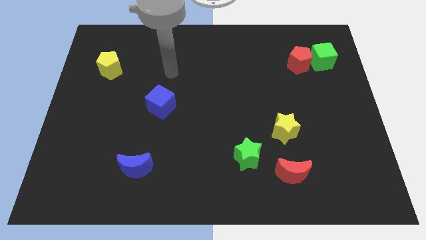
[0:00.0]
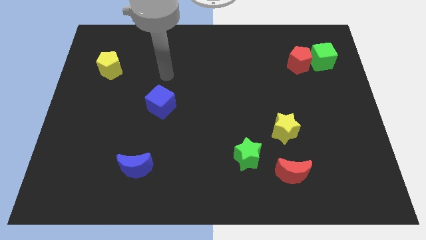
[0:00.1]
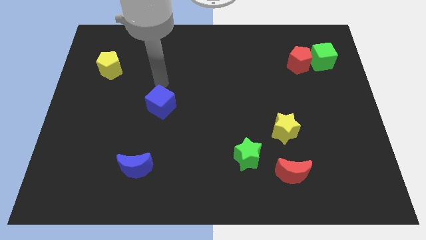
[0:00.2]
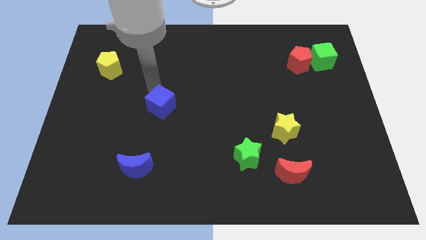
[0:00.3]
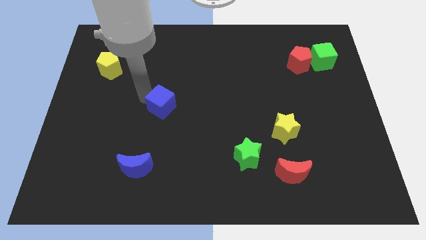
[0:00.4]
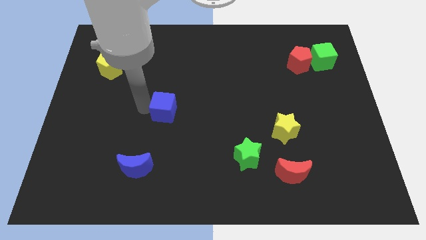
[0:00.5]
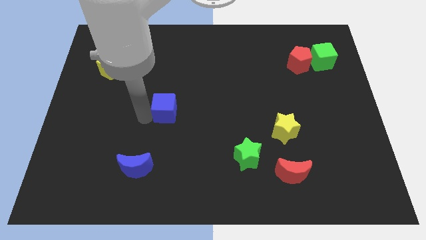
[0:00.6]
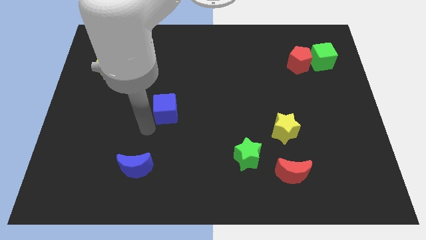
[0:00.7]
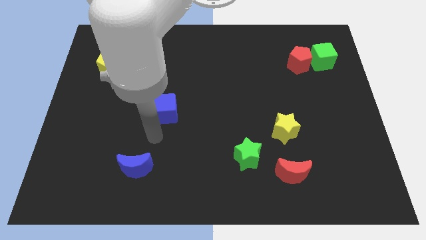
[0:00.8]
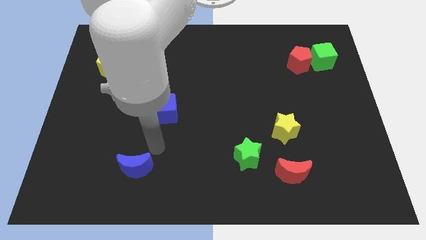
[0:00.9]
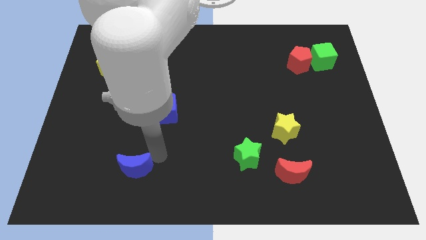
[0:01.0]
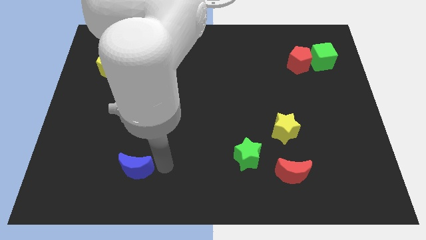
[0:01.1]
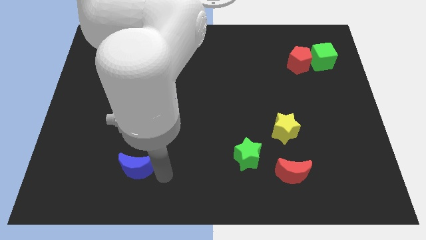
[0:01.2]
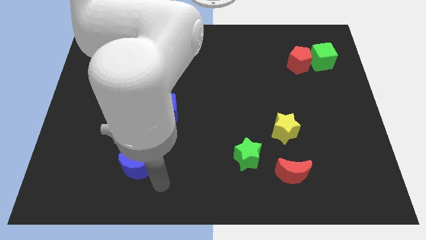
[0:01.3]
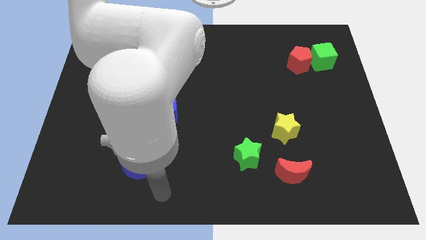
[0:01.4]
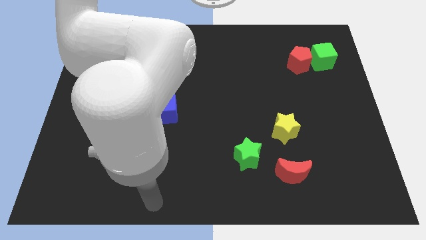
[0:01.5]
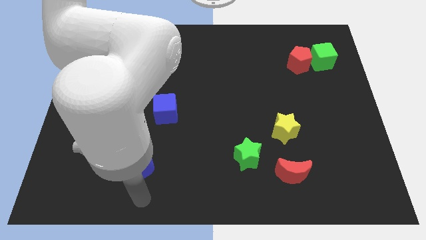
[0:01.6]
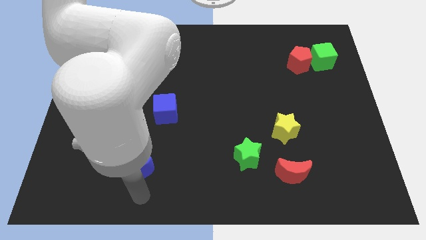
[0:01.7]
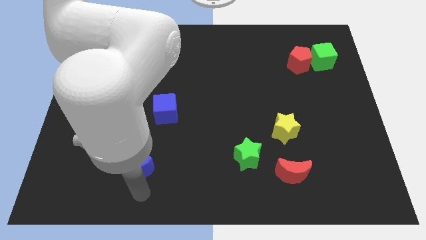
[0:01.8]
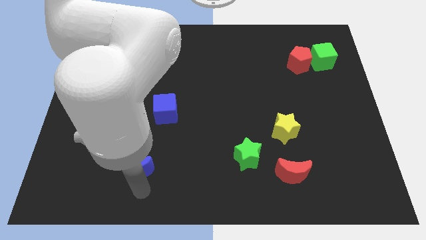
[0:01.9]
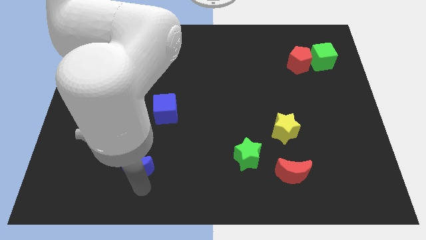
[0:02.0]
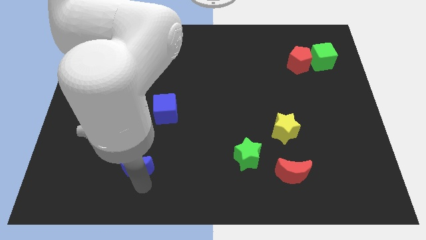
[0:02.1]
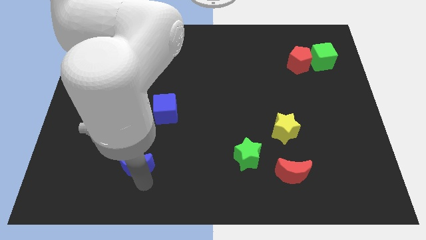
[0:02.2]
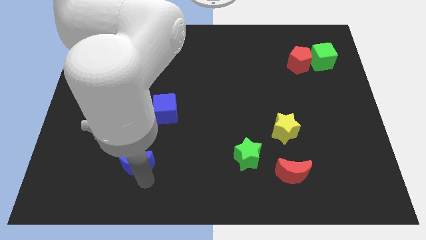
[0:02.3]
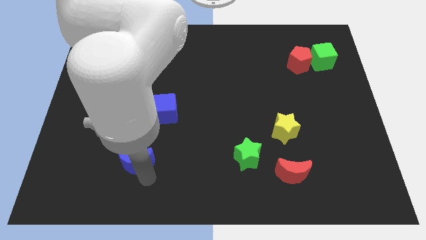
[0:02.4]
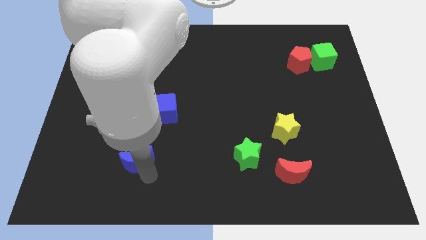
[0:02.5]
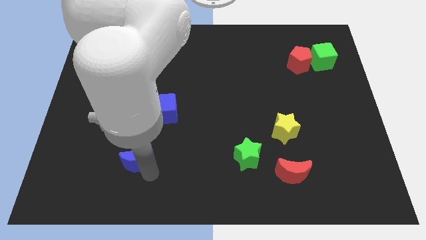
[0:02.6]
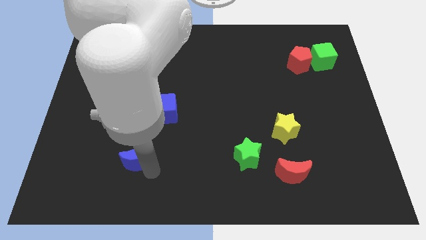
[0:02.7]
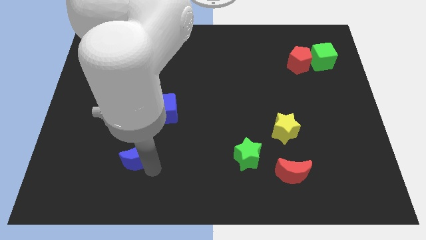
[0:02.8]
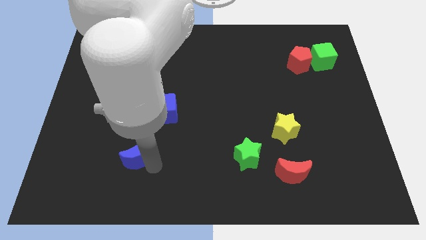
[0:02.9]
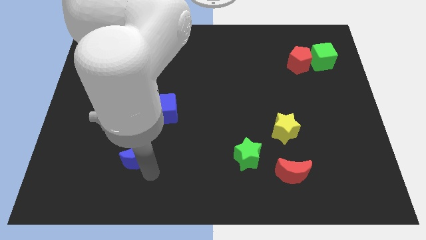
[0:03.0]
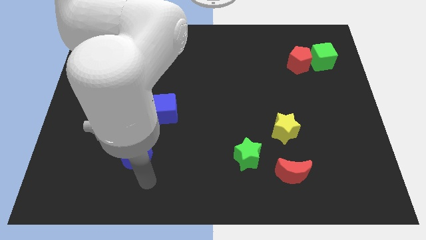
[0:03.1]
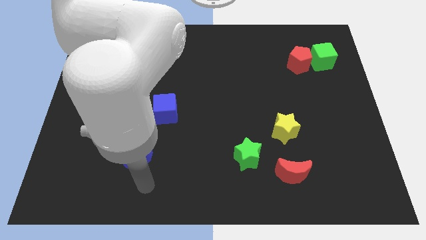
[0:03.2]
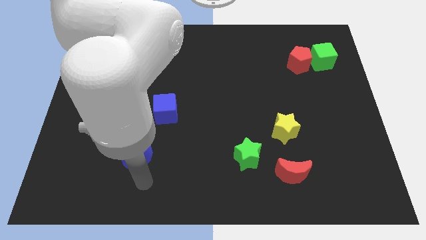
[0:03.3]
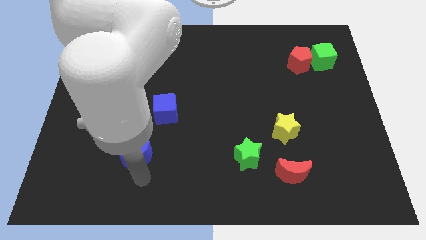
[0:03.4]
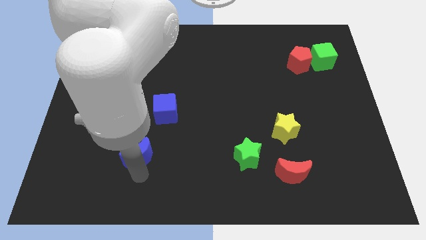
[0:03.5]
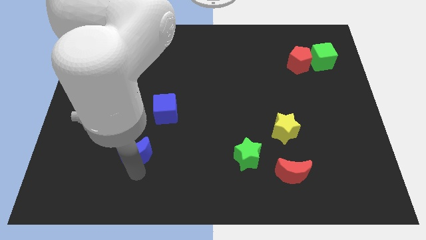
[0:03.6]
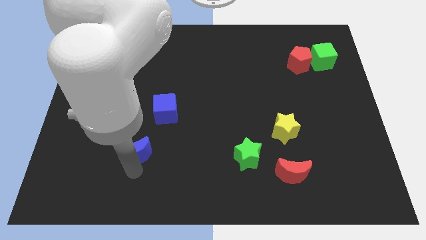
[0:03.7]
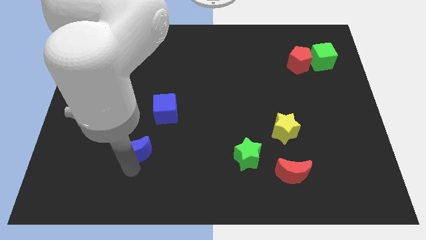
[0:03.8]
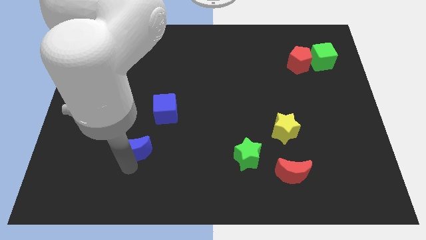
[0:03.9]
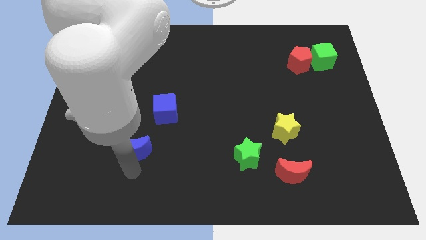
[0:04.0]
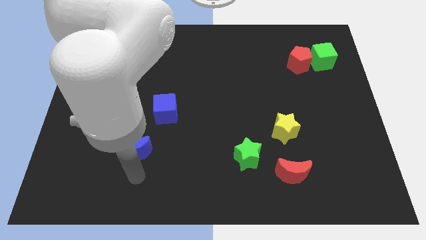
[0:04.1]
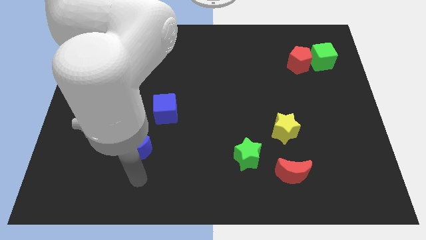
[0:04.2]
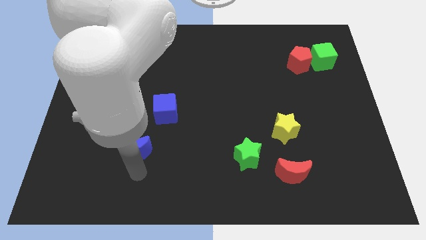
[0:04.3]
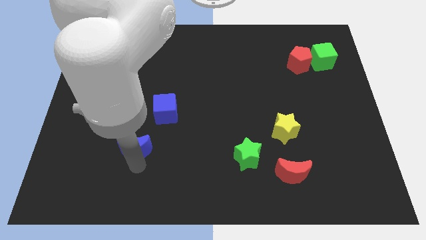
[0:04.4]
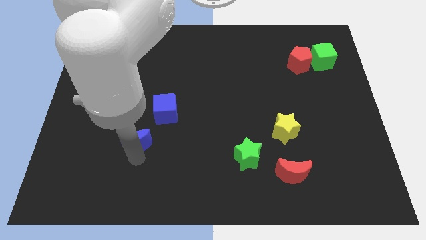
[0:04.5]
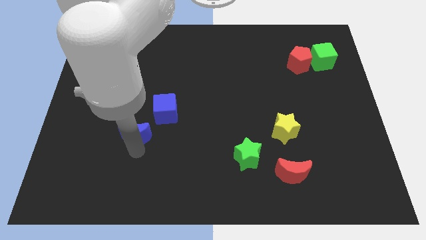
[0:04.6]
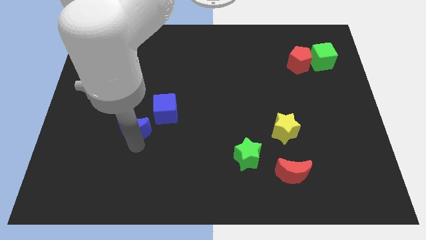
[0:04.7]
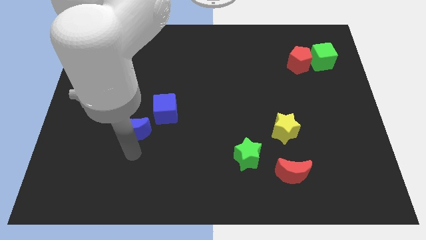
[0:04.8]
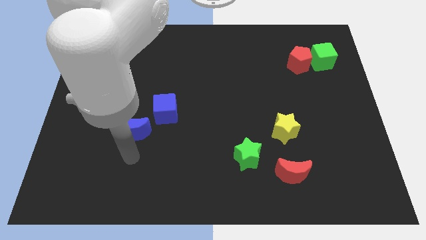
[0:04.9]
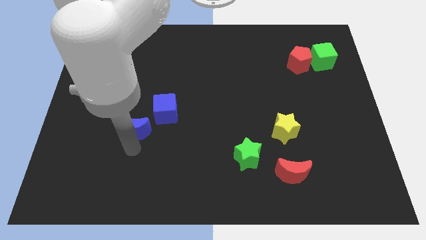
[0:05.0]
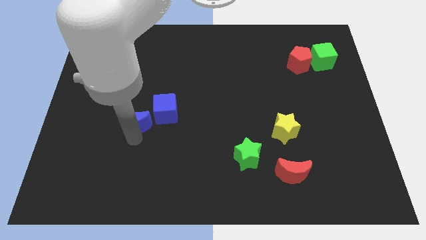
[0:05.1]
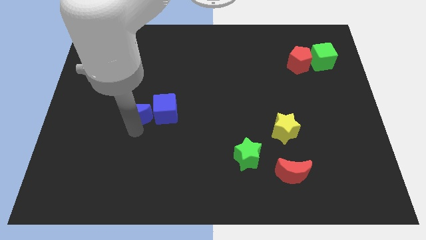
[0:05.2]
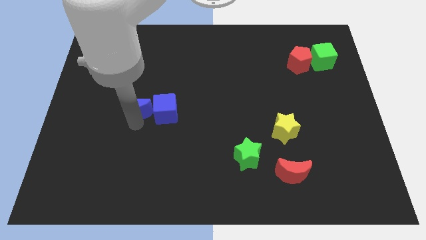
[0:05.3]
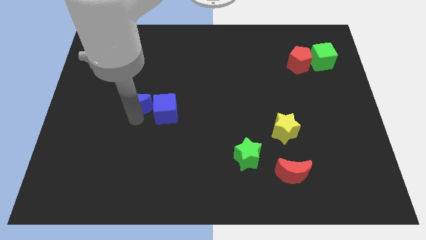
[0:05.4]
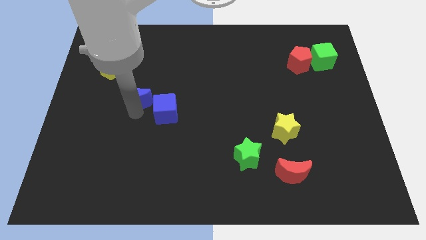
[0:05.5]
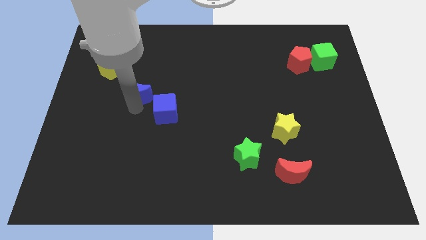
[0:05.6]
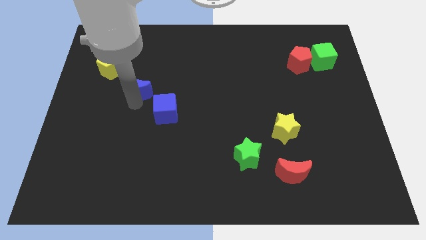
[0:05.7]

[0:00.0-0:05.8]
push the blue moon up

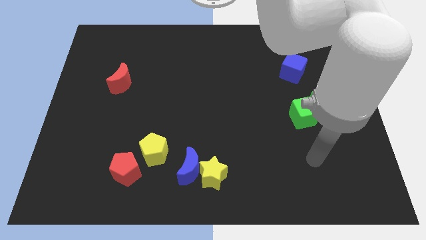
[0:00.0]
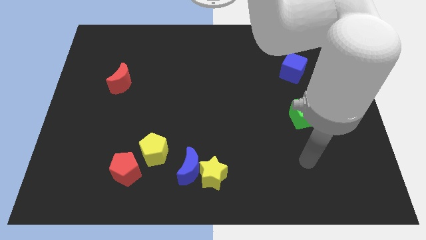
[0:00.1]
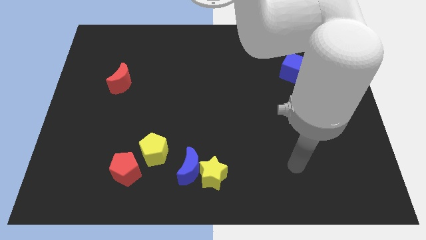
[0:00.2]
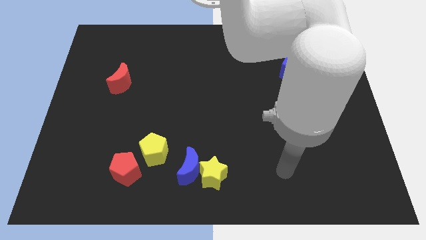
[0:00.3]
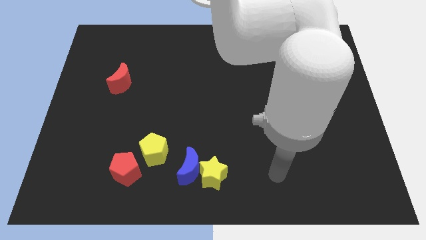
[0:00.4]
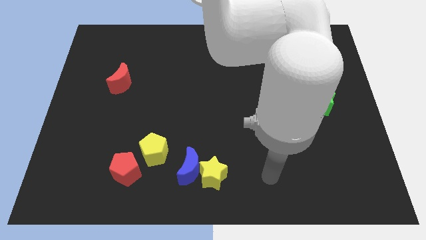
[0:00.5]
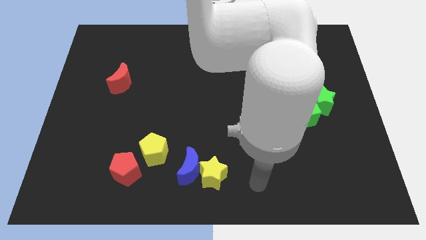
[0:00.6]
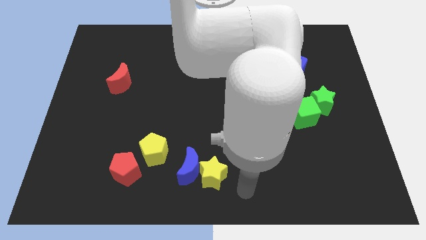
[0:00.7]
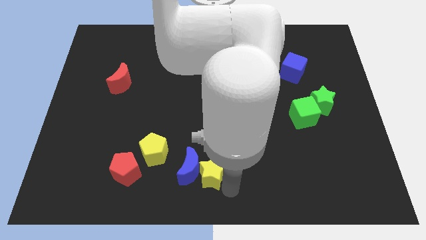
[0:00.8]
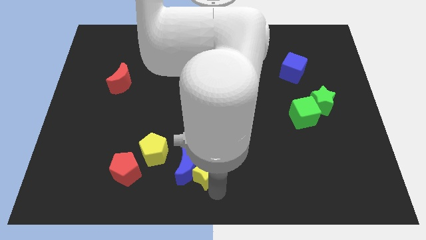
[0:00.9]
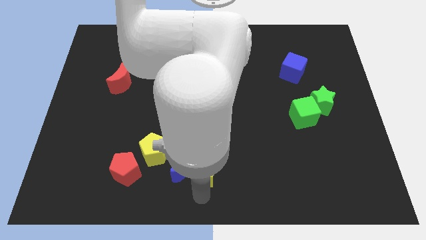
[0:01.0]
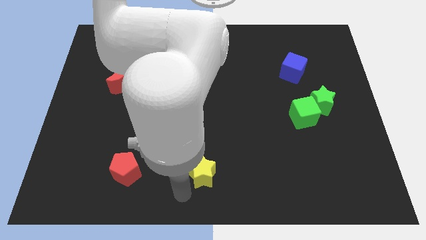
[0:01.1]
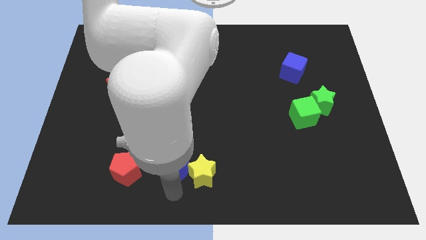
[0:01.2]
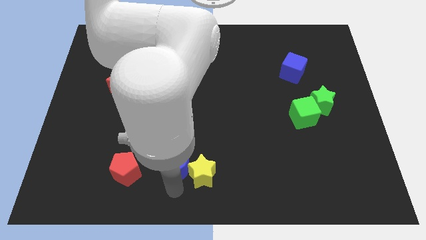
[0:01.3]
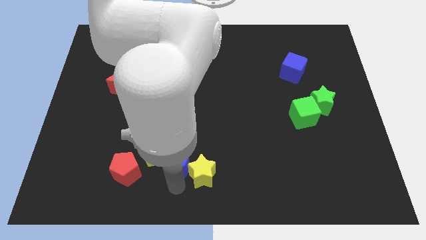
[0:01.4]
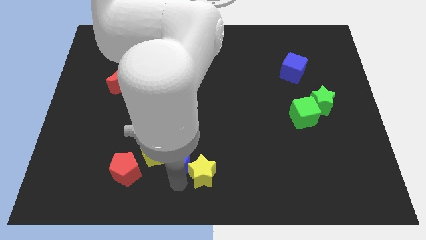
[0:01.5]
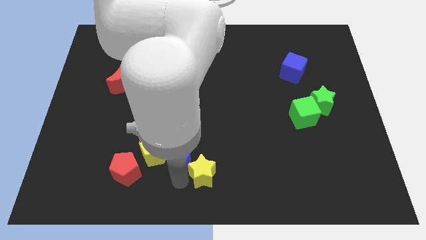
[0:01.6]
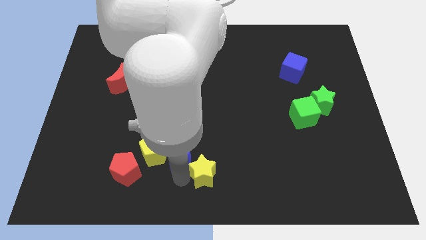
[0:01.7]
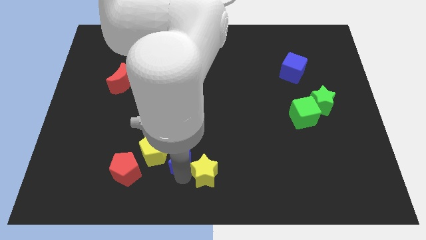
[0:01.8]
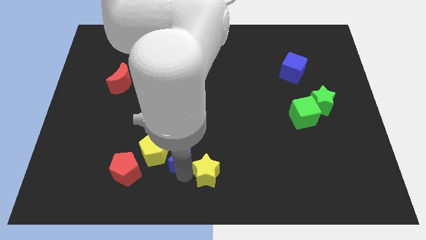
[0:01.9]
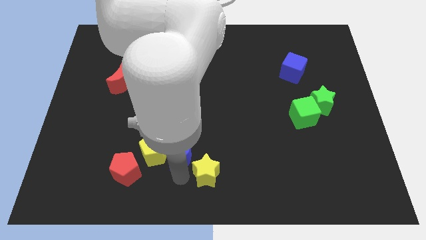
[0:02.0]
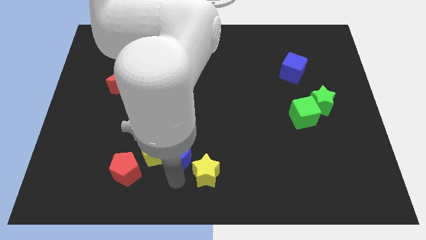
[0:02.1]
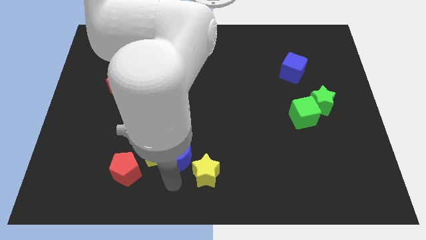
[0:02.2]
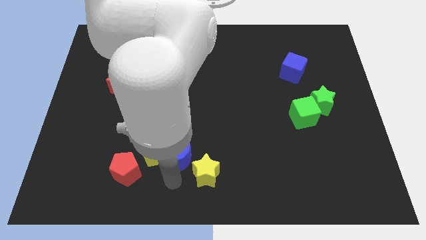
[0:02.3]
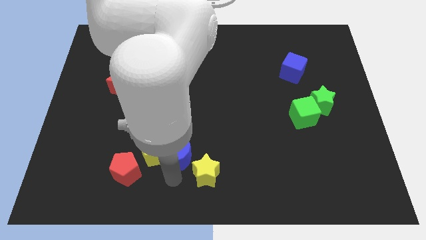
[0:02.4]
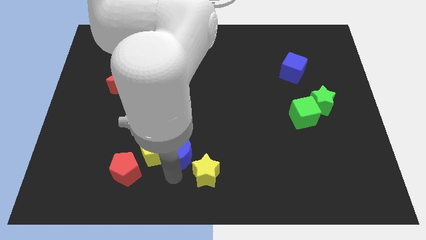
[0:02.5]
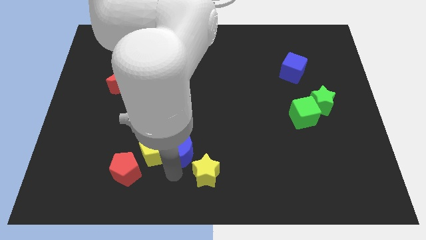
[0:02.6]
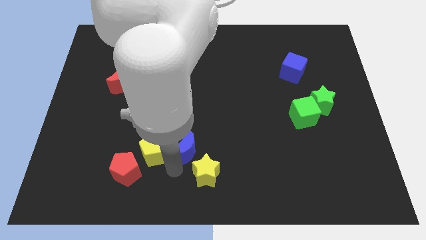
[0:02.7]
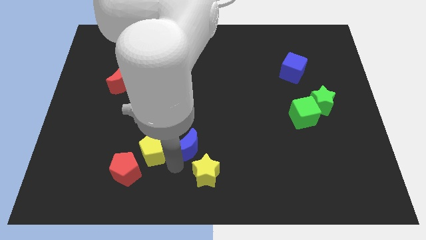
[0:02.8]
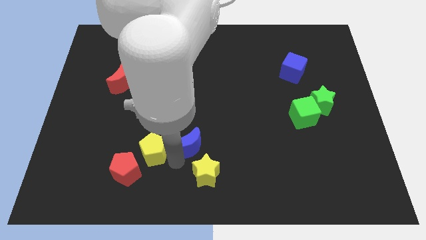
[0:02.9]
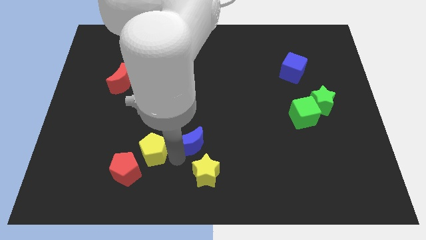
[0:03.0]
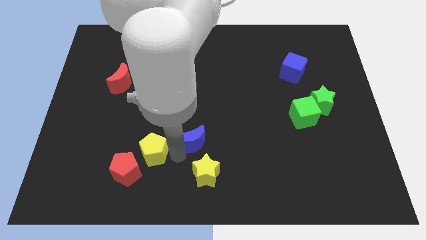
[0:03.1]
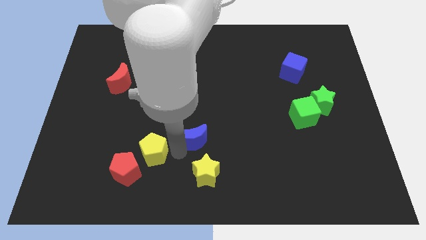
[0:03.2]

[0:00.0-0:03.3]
slightly slide the blue moon up
